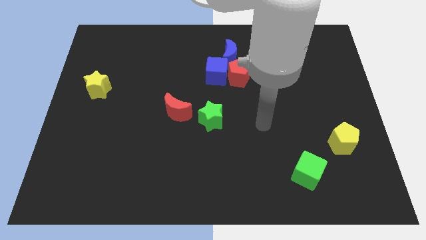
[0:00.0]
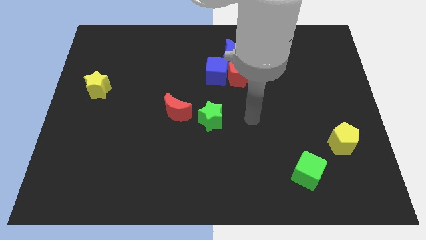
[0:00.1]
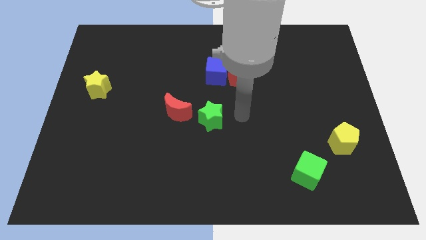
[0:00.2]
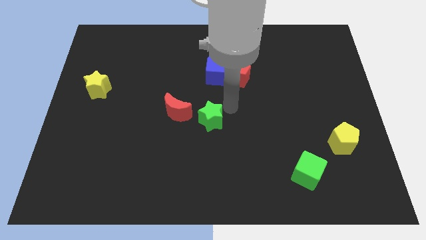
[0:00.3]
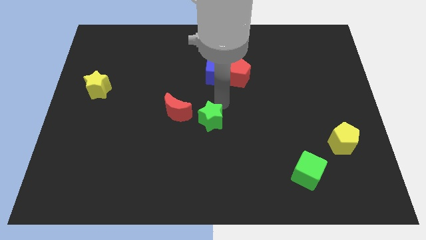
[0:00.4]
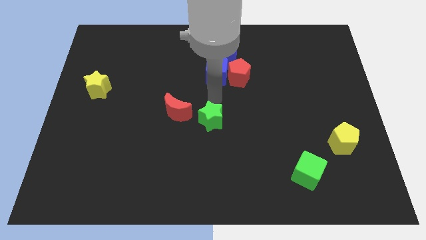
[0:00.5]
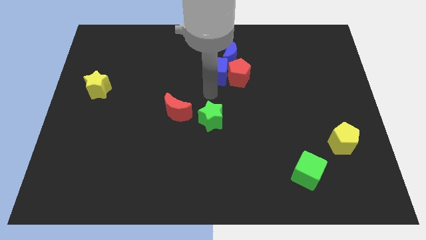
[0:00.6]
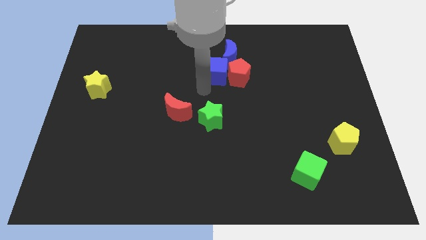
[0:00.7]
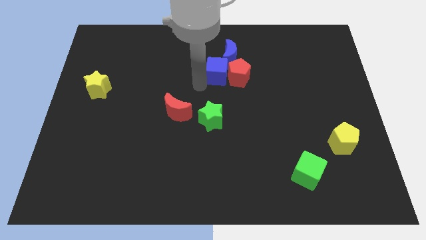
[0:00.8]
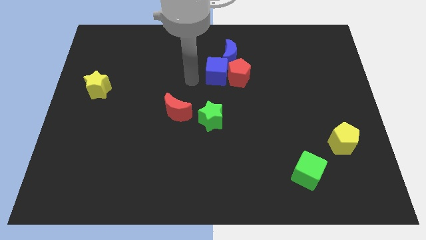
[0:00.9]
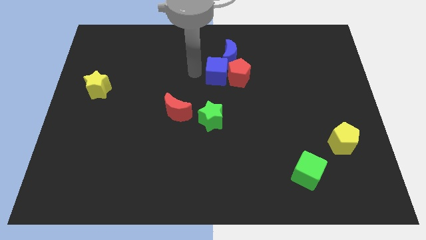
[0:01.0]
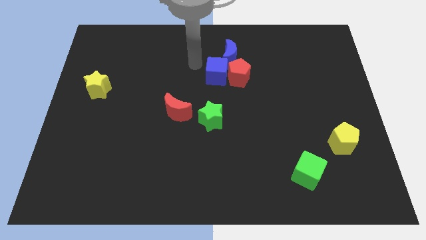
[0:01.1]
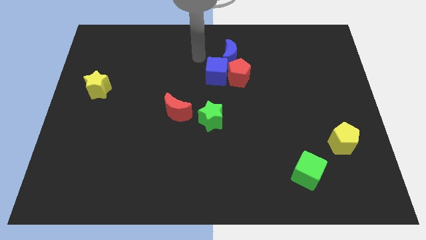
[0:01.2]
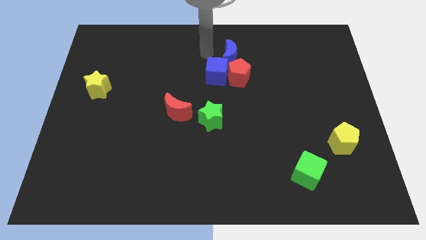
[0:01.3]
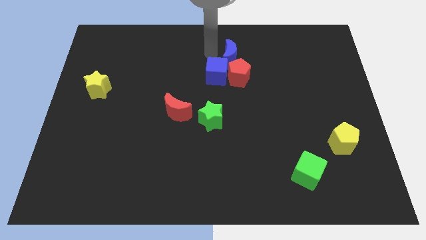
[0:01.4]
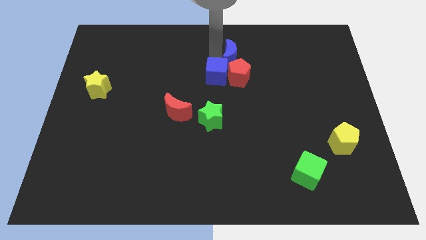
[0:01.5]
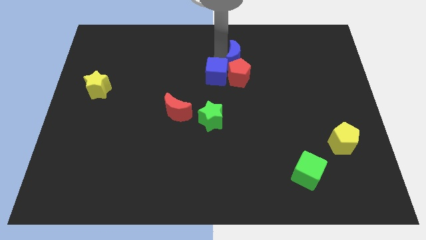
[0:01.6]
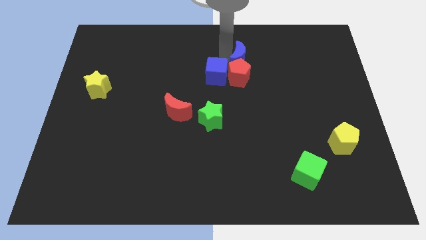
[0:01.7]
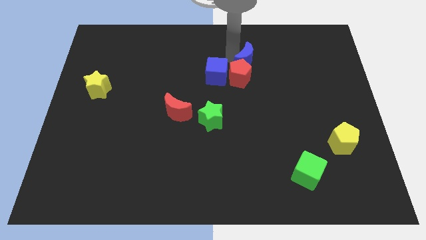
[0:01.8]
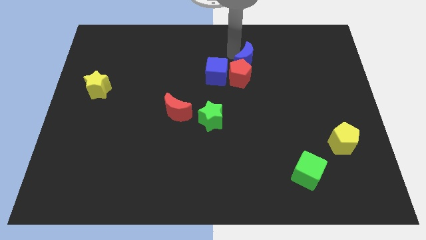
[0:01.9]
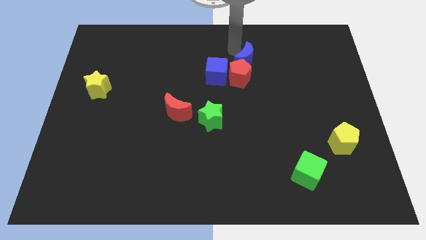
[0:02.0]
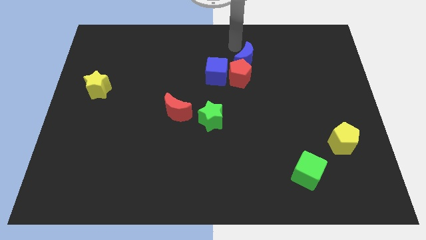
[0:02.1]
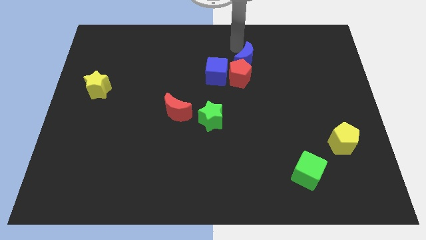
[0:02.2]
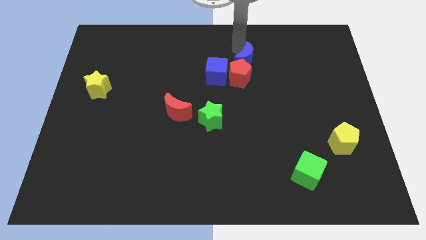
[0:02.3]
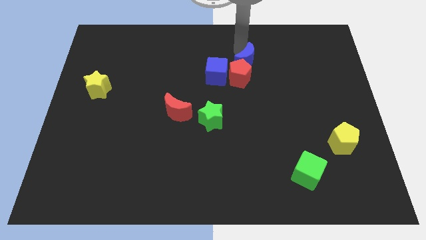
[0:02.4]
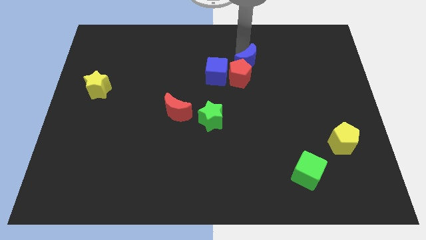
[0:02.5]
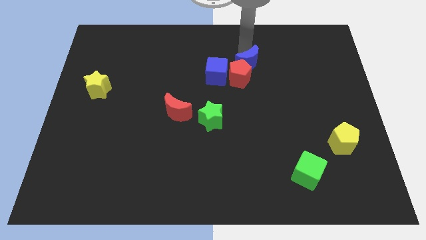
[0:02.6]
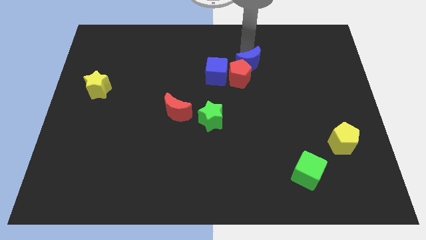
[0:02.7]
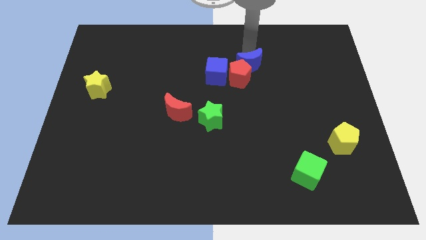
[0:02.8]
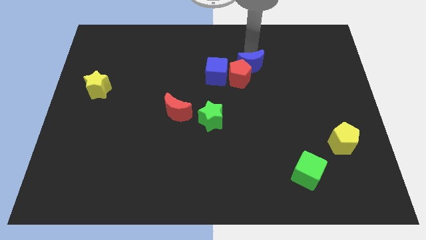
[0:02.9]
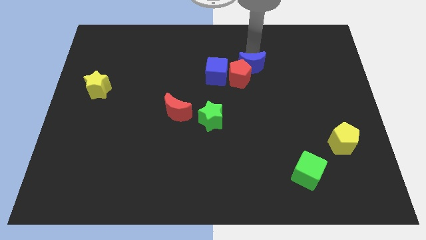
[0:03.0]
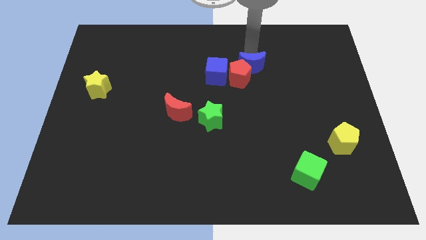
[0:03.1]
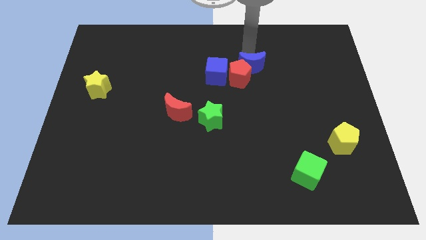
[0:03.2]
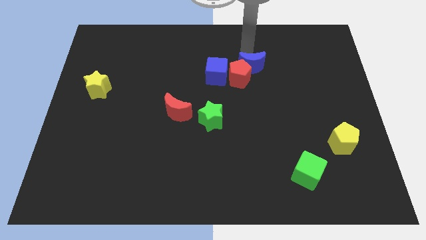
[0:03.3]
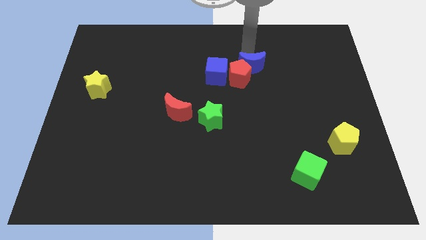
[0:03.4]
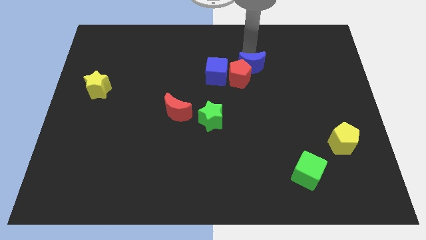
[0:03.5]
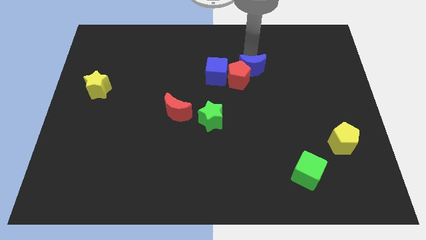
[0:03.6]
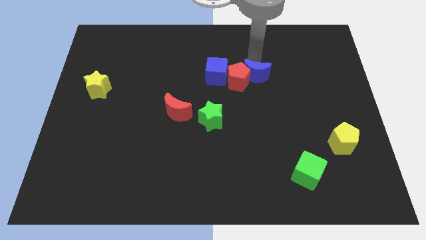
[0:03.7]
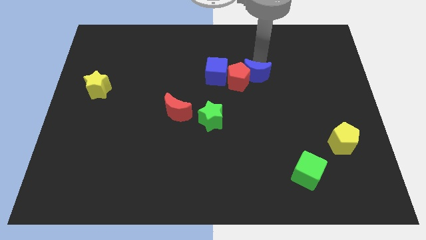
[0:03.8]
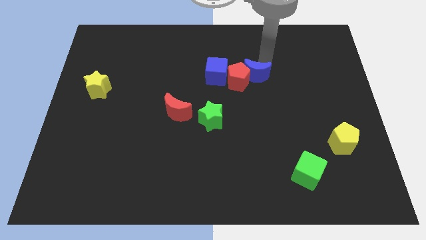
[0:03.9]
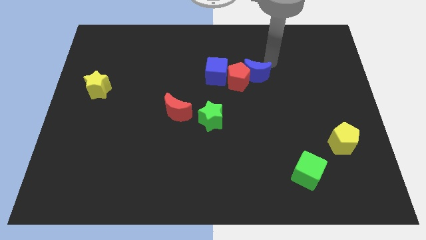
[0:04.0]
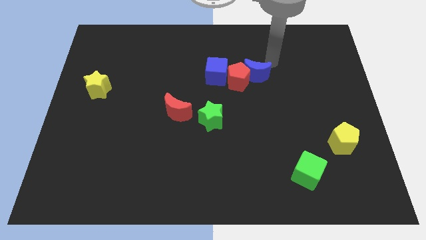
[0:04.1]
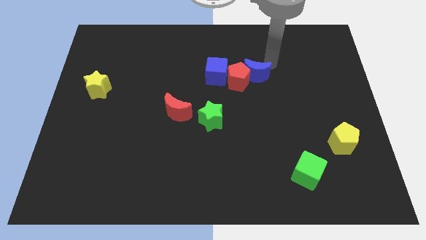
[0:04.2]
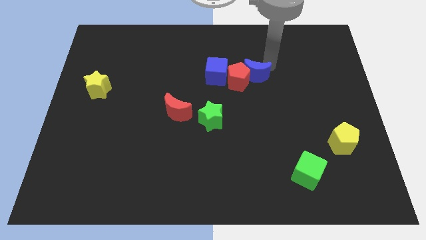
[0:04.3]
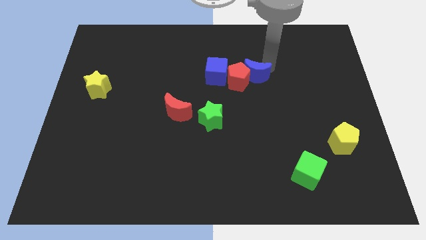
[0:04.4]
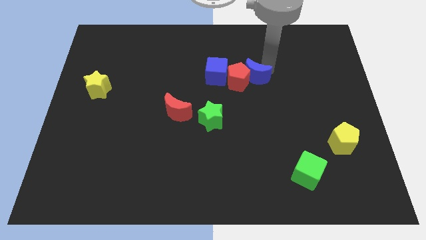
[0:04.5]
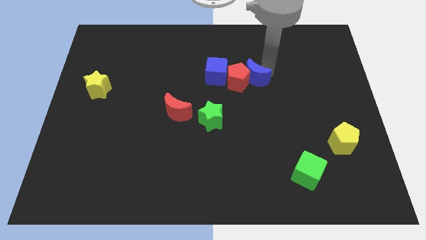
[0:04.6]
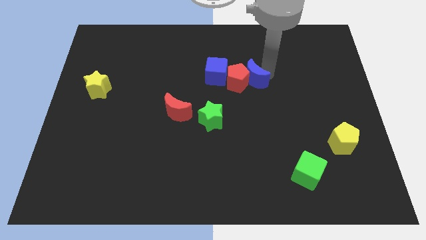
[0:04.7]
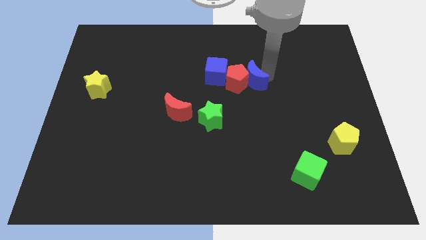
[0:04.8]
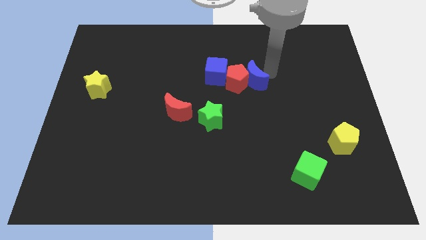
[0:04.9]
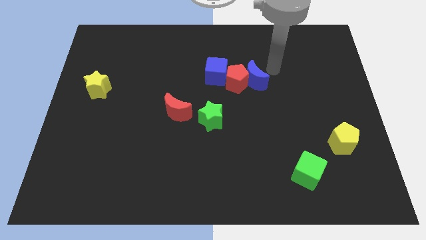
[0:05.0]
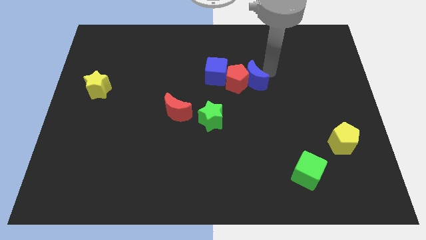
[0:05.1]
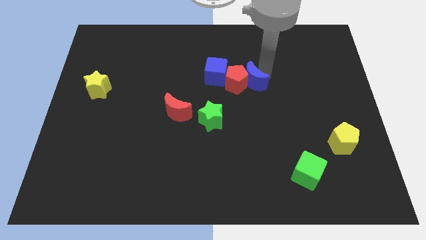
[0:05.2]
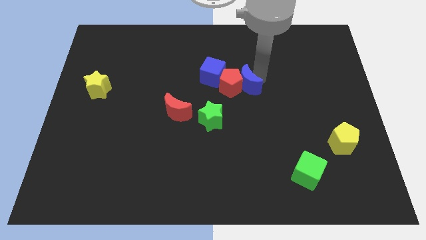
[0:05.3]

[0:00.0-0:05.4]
push the blue moon diagonally down and to the right of the blue cube

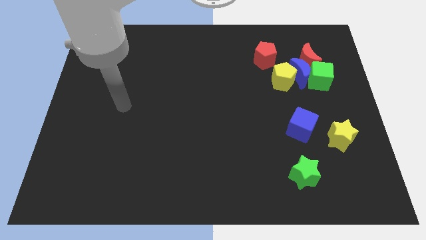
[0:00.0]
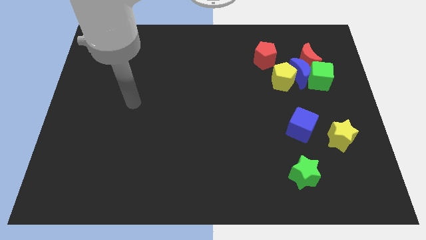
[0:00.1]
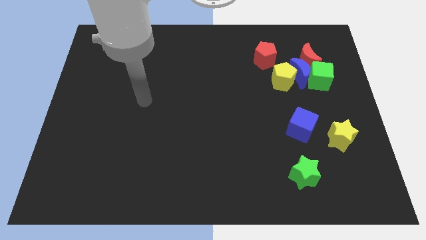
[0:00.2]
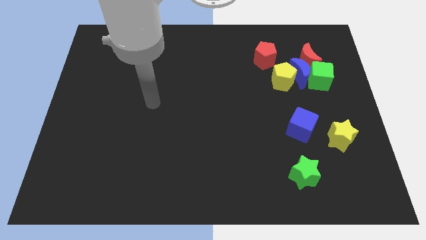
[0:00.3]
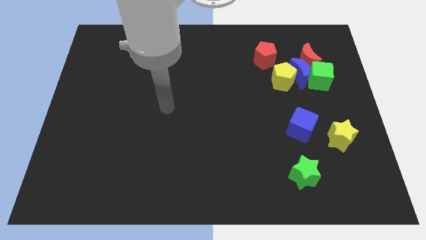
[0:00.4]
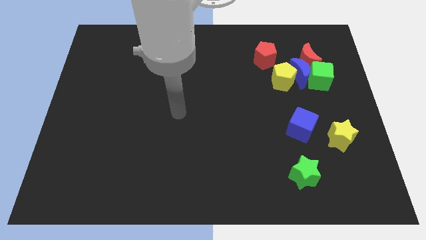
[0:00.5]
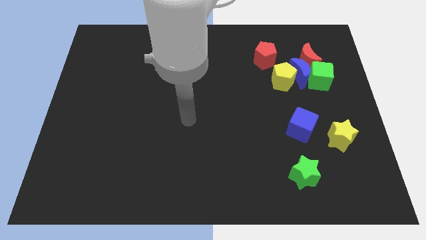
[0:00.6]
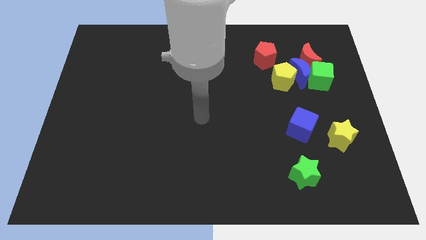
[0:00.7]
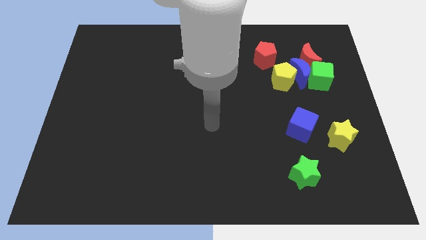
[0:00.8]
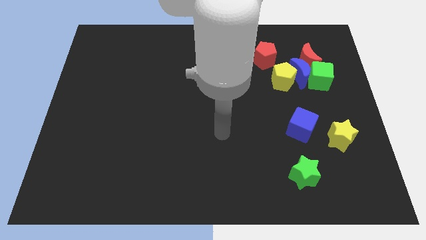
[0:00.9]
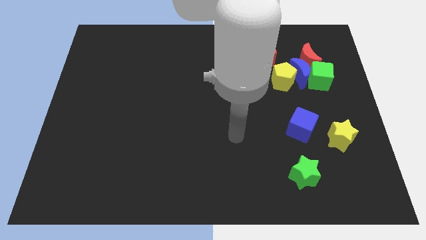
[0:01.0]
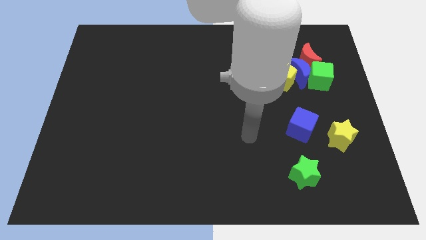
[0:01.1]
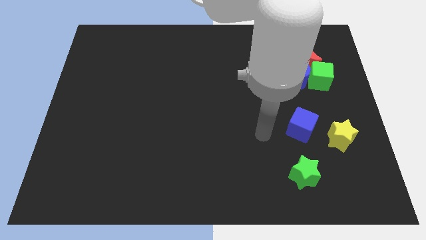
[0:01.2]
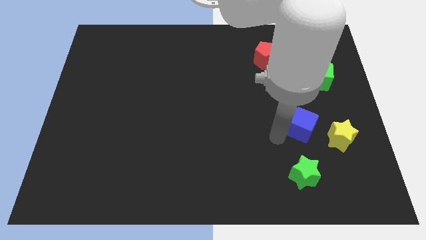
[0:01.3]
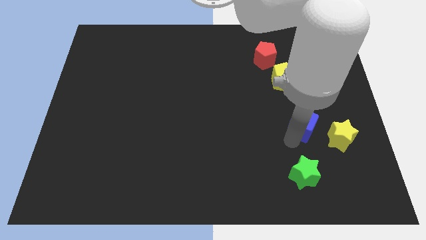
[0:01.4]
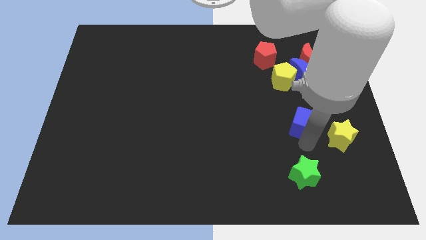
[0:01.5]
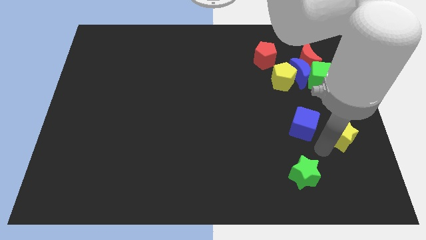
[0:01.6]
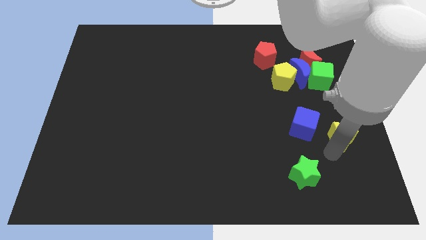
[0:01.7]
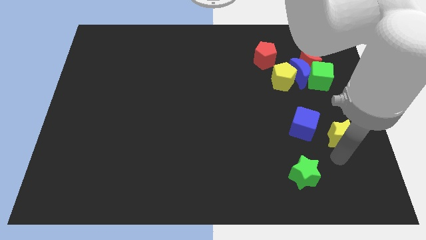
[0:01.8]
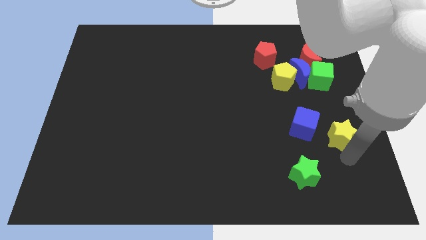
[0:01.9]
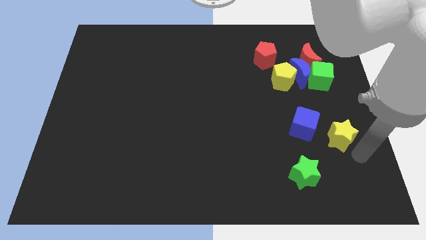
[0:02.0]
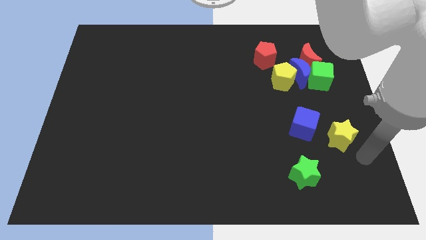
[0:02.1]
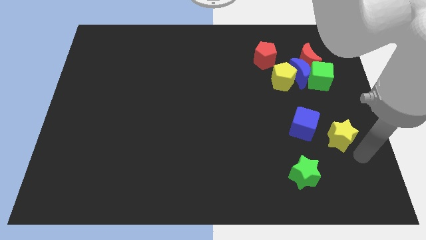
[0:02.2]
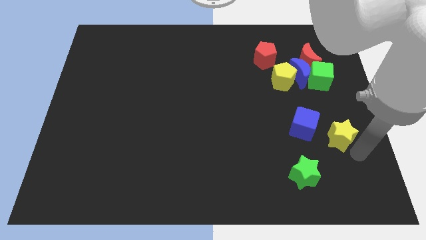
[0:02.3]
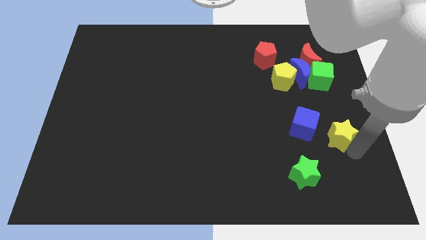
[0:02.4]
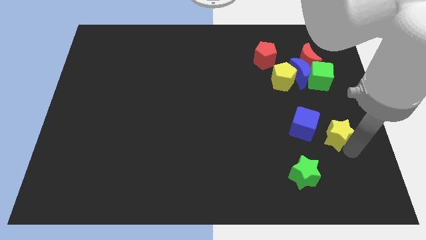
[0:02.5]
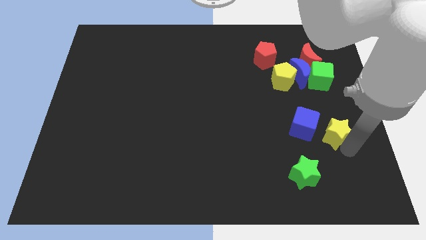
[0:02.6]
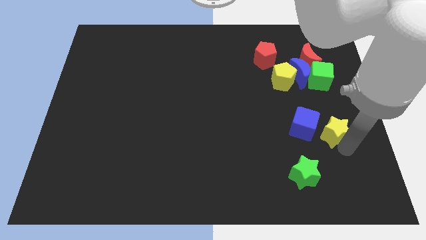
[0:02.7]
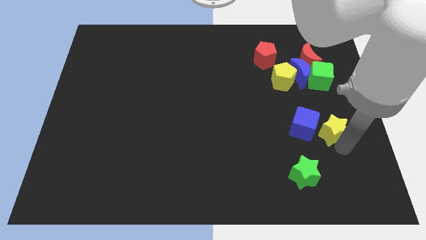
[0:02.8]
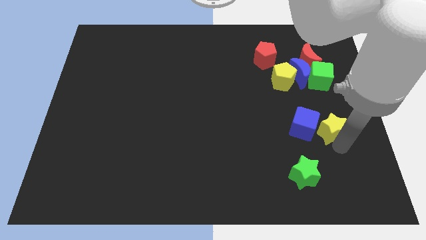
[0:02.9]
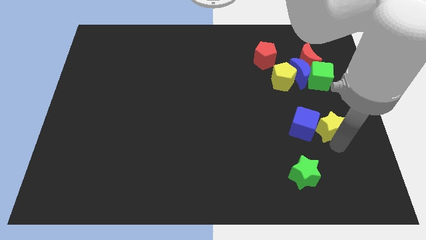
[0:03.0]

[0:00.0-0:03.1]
slide the yellow star to the top right side of the blue cube
